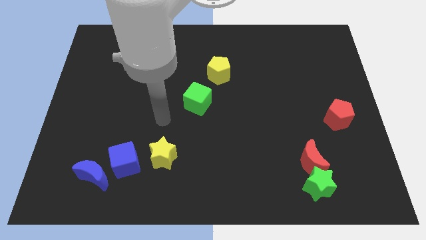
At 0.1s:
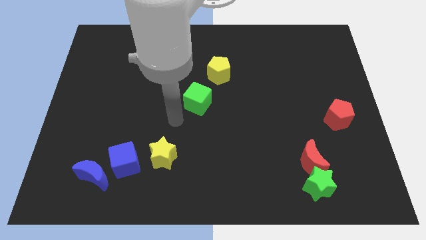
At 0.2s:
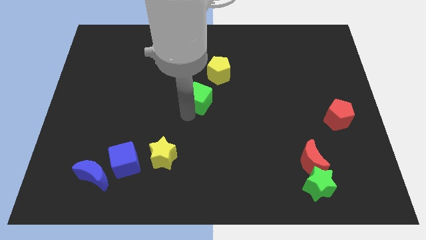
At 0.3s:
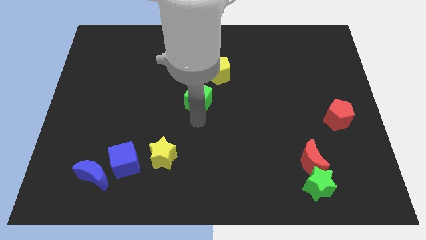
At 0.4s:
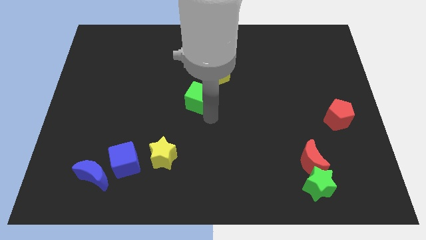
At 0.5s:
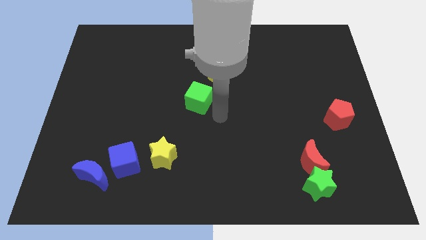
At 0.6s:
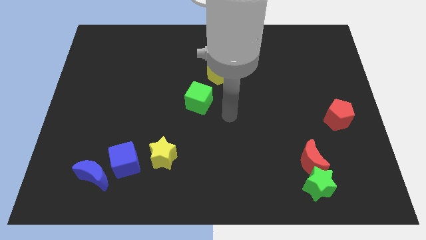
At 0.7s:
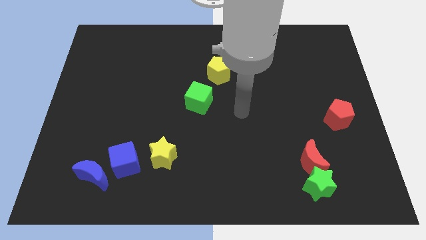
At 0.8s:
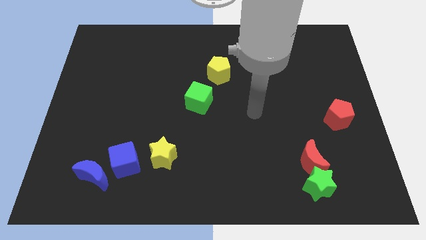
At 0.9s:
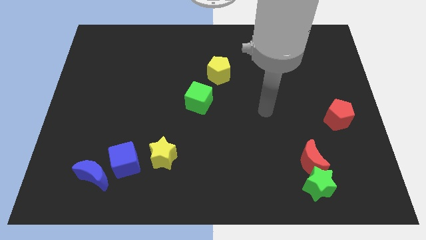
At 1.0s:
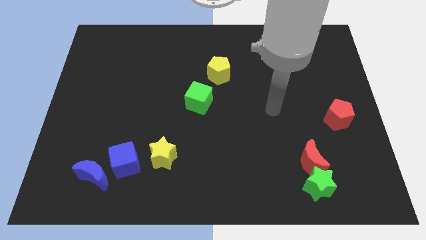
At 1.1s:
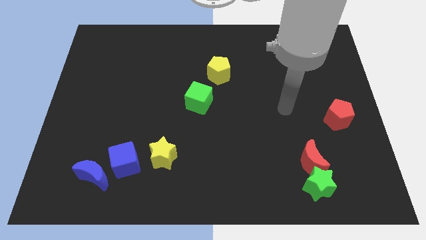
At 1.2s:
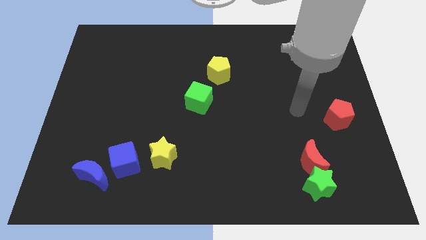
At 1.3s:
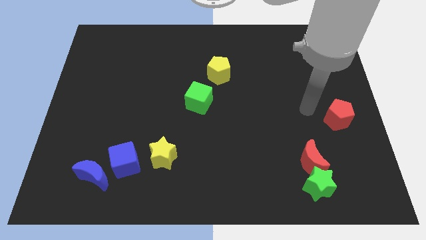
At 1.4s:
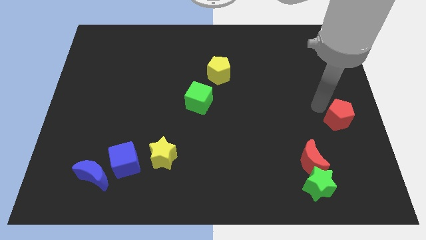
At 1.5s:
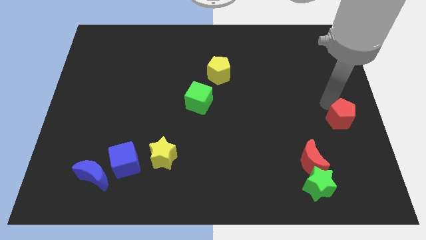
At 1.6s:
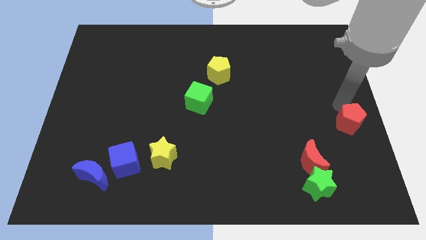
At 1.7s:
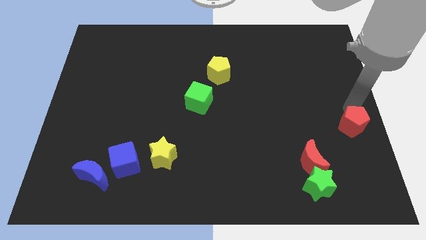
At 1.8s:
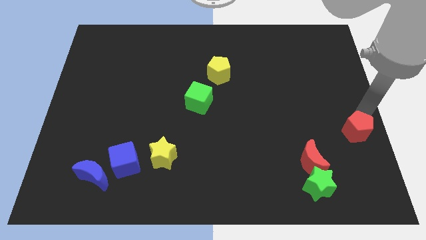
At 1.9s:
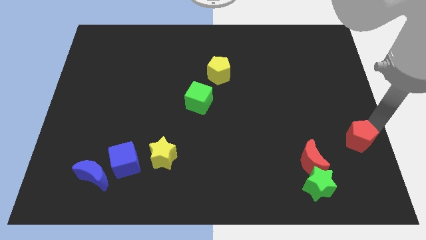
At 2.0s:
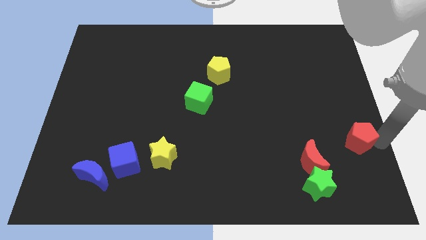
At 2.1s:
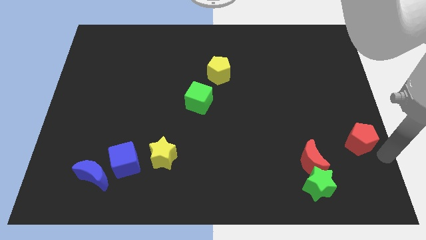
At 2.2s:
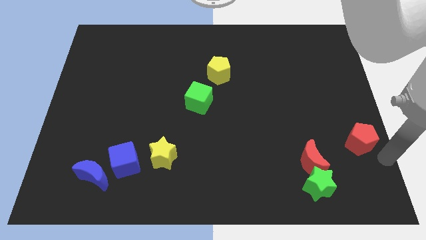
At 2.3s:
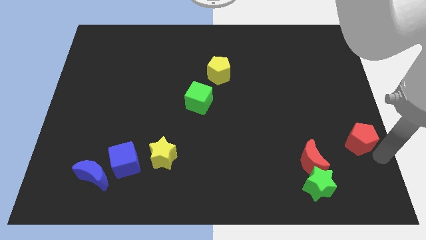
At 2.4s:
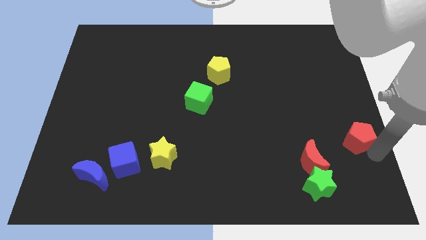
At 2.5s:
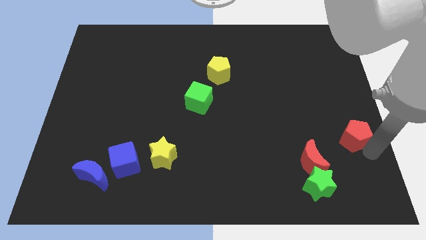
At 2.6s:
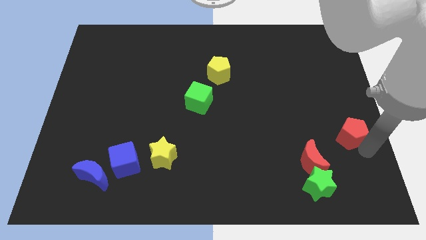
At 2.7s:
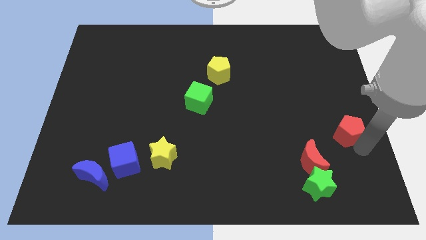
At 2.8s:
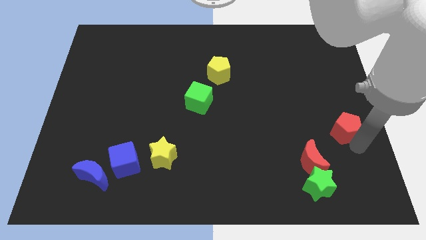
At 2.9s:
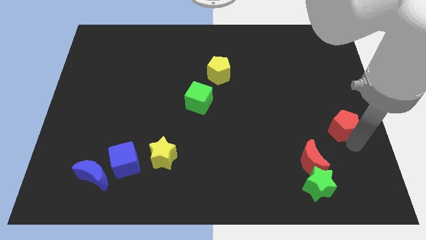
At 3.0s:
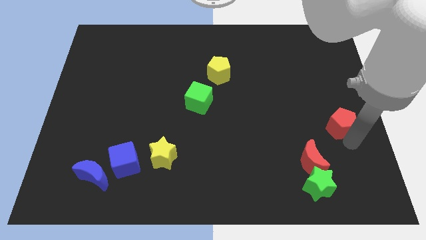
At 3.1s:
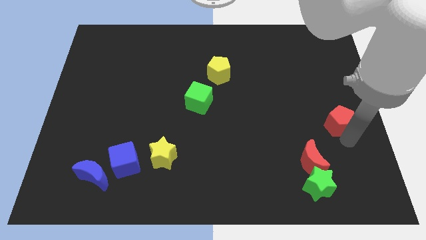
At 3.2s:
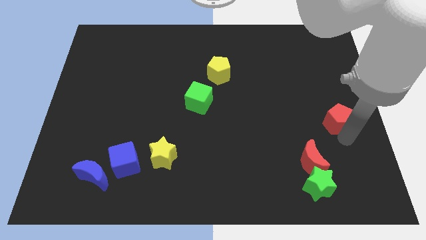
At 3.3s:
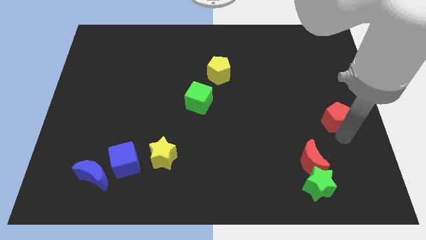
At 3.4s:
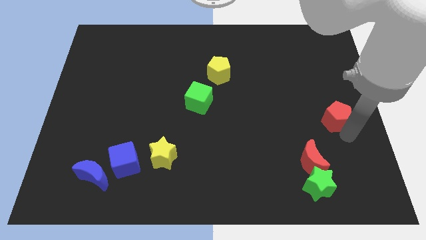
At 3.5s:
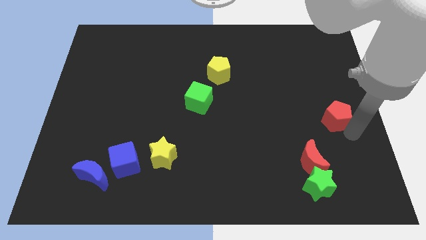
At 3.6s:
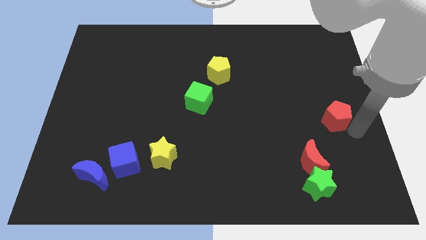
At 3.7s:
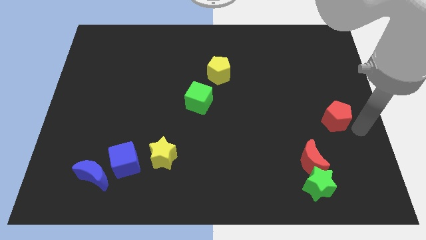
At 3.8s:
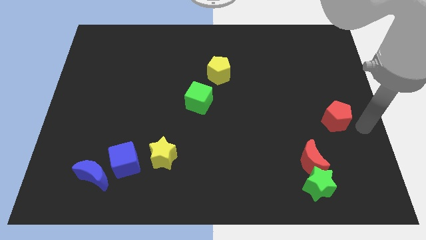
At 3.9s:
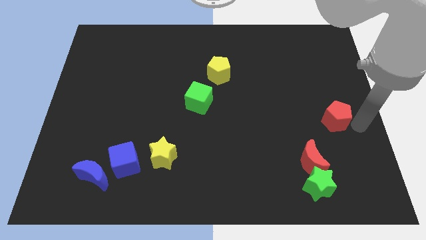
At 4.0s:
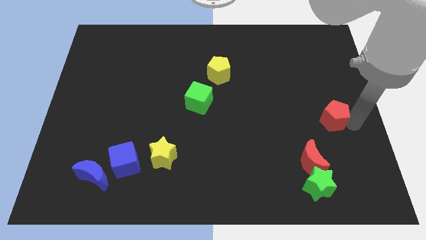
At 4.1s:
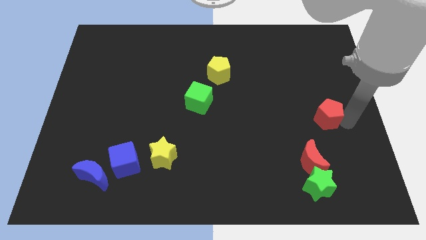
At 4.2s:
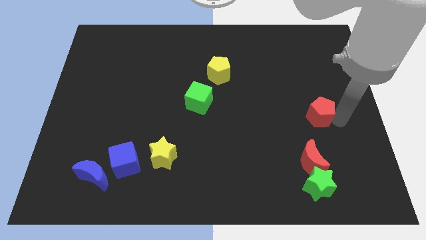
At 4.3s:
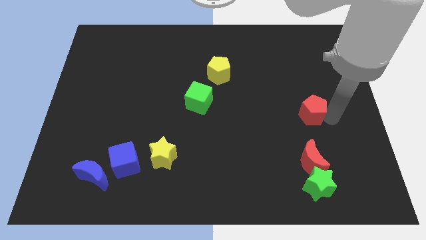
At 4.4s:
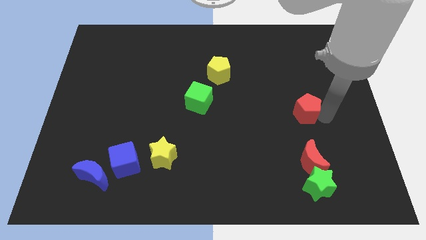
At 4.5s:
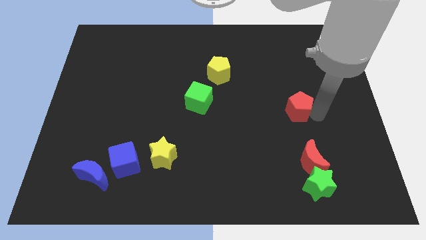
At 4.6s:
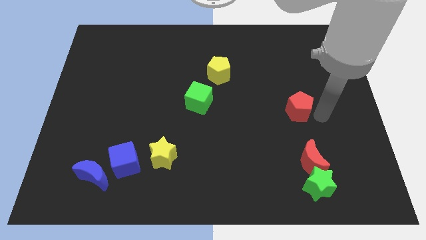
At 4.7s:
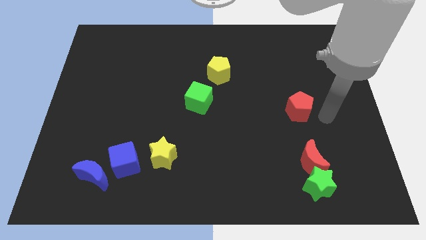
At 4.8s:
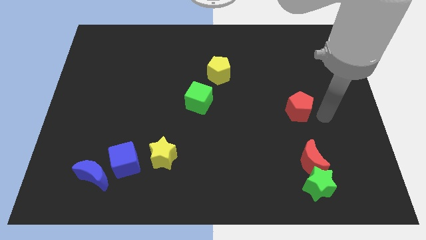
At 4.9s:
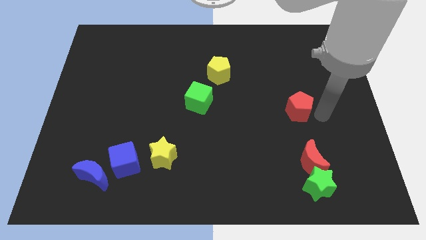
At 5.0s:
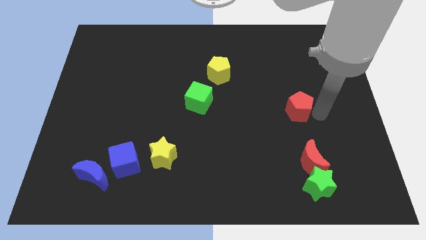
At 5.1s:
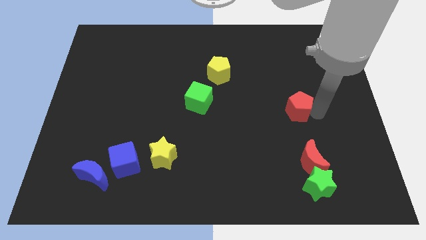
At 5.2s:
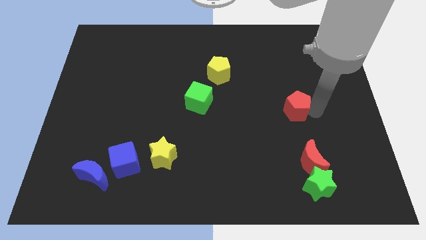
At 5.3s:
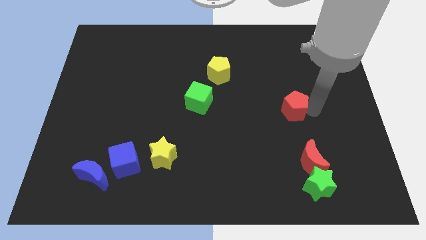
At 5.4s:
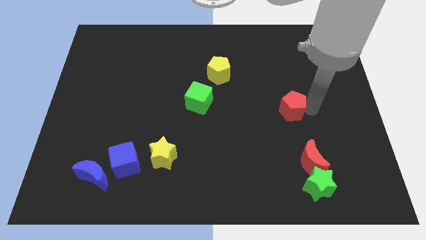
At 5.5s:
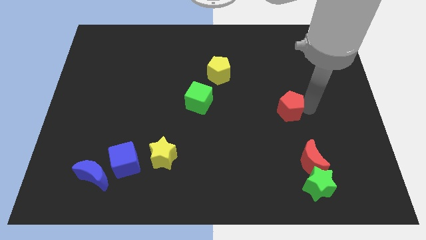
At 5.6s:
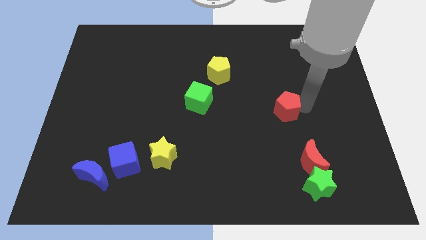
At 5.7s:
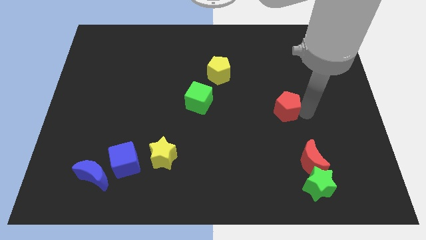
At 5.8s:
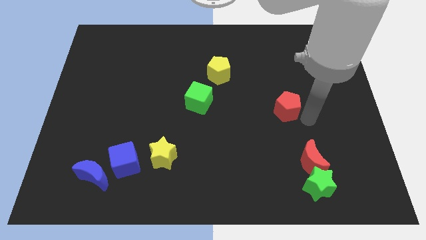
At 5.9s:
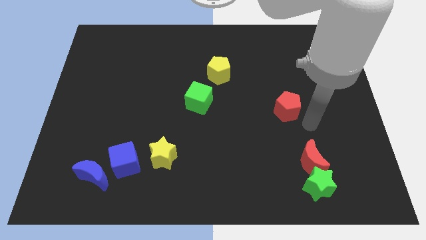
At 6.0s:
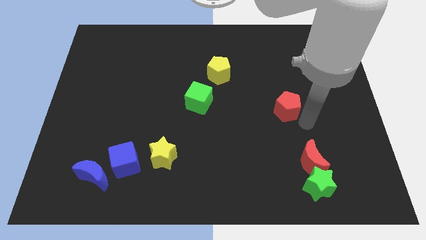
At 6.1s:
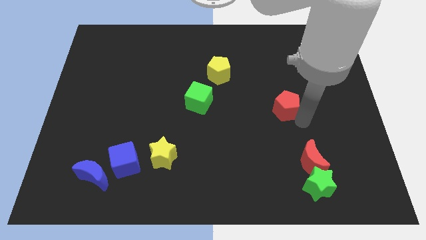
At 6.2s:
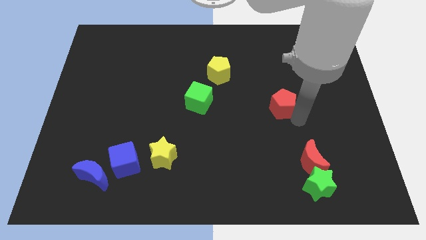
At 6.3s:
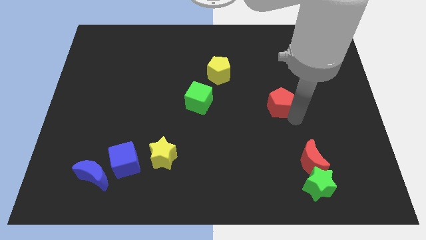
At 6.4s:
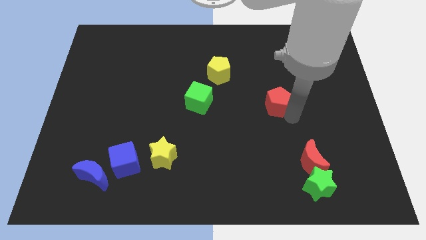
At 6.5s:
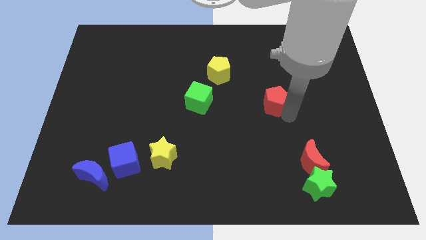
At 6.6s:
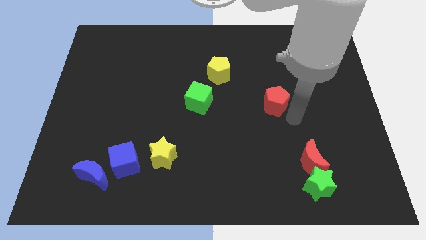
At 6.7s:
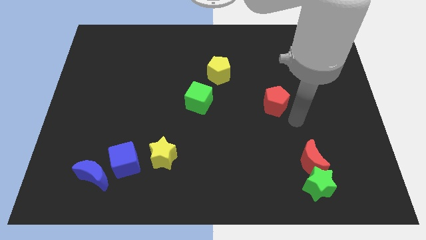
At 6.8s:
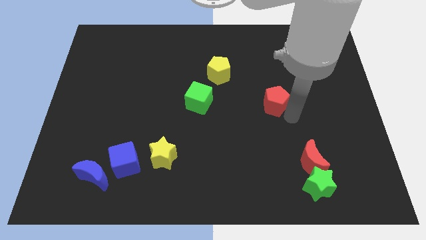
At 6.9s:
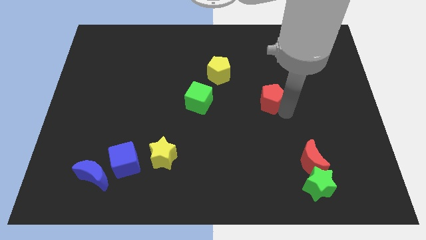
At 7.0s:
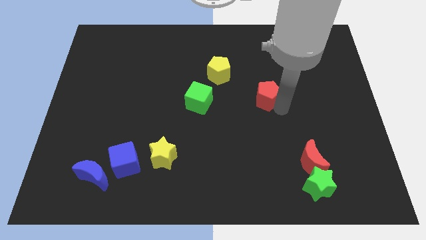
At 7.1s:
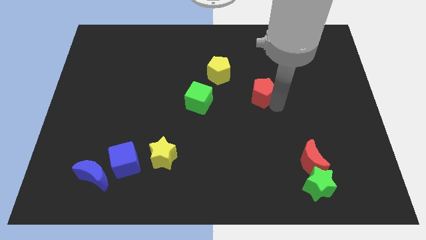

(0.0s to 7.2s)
put the red pentagon to the bottom right of the yellow pentagon

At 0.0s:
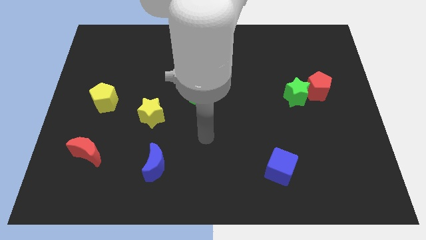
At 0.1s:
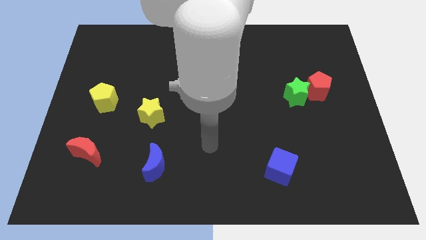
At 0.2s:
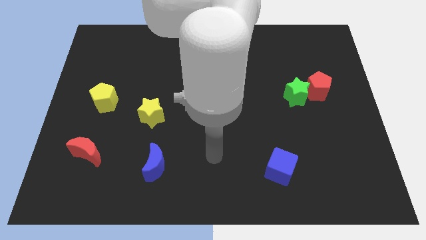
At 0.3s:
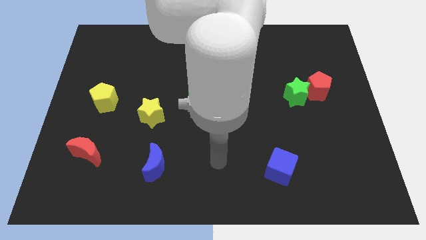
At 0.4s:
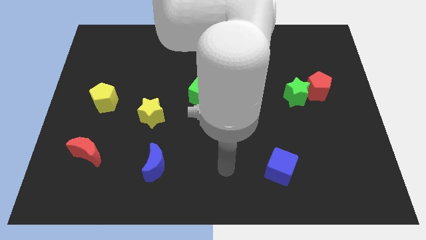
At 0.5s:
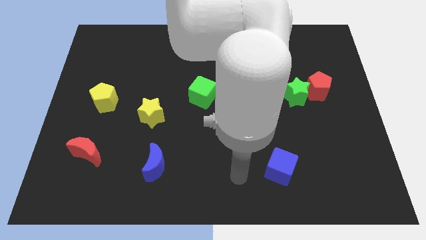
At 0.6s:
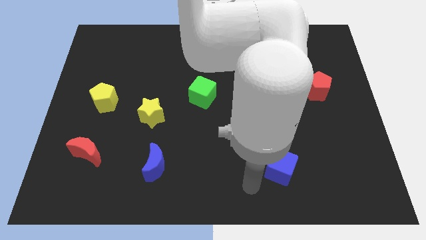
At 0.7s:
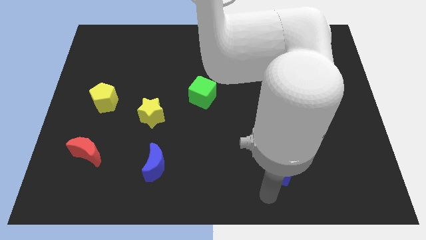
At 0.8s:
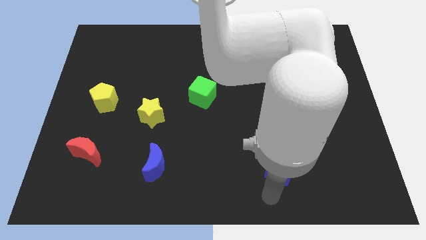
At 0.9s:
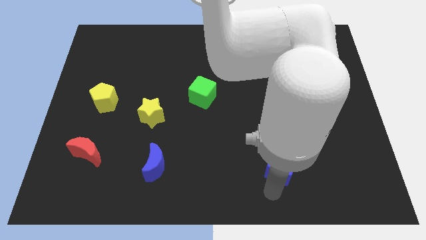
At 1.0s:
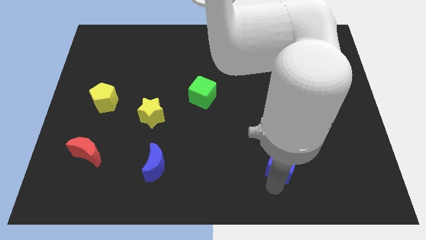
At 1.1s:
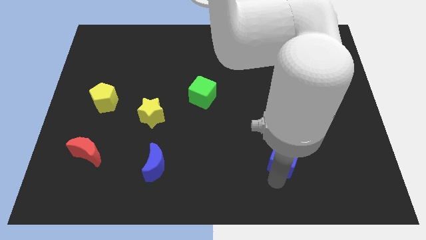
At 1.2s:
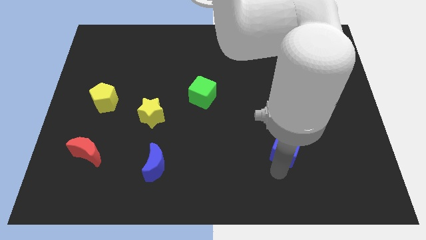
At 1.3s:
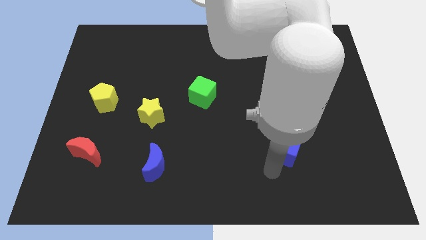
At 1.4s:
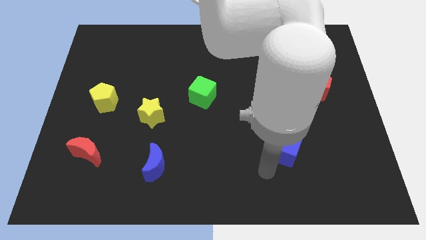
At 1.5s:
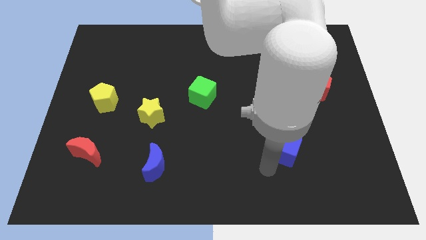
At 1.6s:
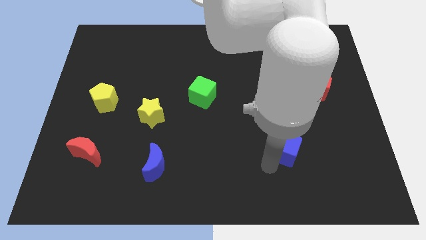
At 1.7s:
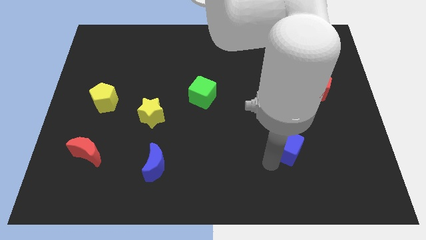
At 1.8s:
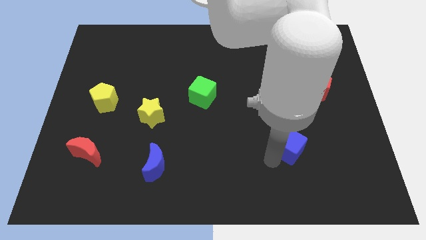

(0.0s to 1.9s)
move the blue cube to the bottom side of the green star
